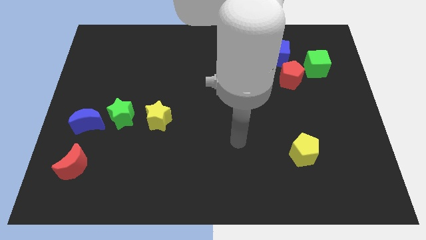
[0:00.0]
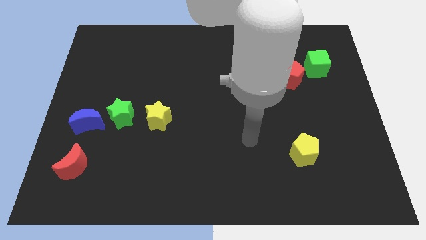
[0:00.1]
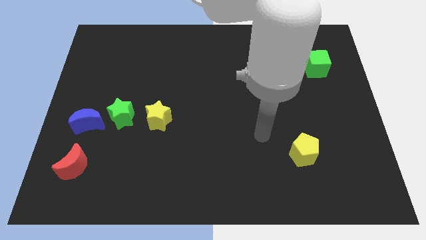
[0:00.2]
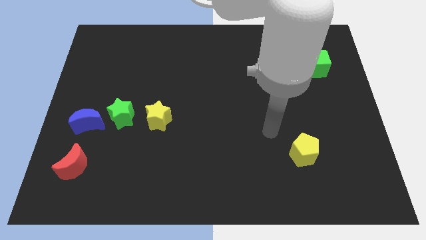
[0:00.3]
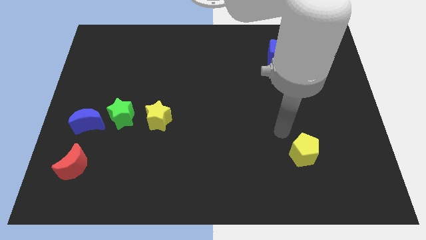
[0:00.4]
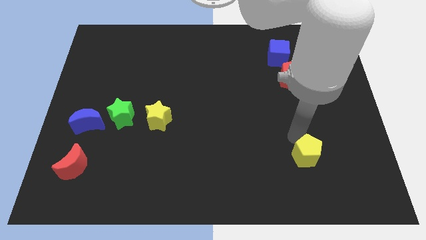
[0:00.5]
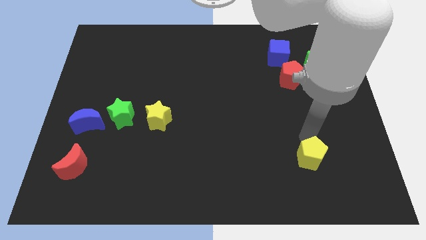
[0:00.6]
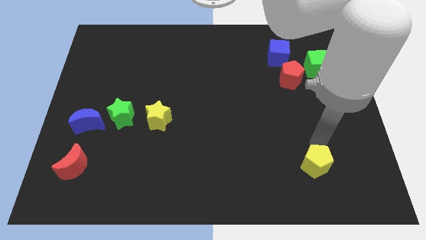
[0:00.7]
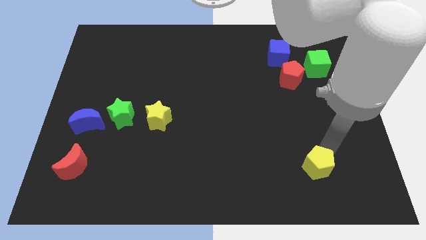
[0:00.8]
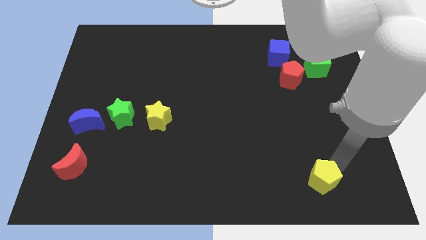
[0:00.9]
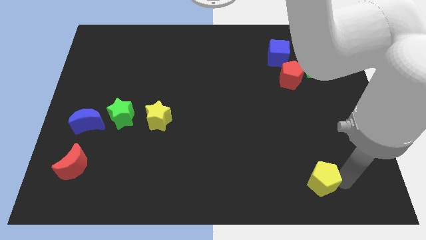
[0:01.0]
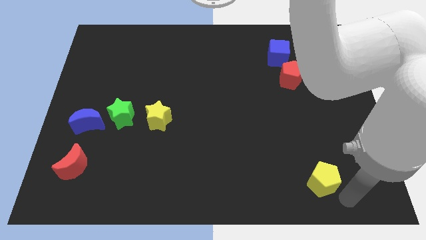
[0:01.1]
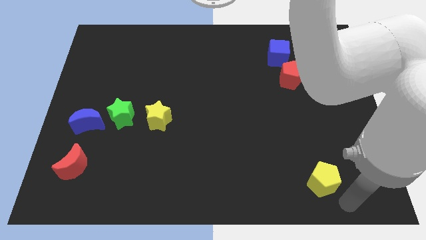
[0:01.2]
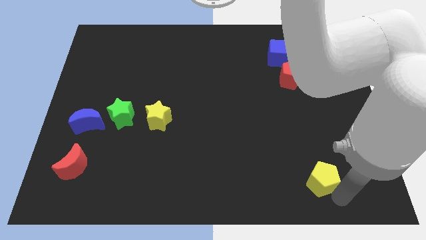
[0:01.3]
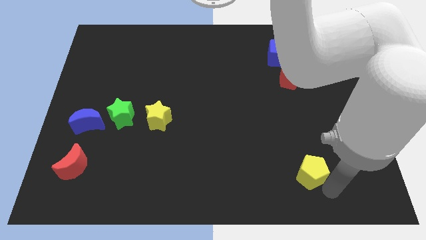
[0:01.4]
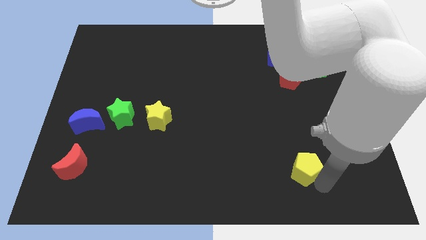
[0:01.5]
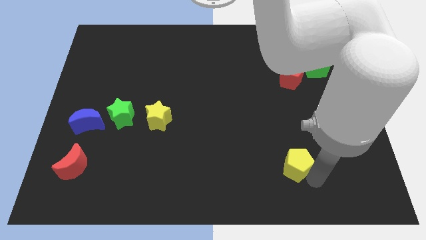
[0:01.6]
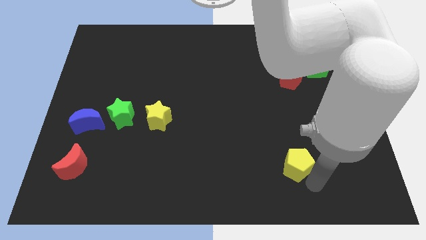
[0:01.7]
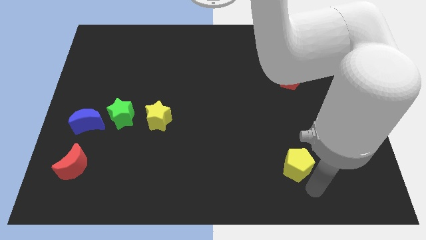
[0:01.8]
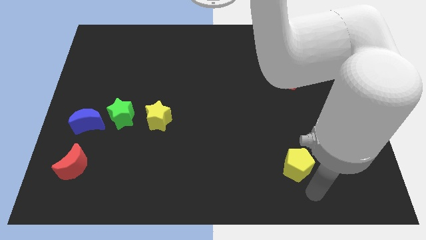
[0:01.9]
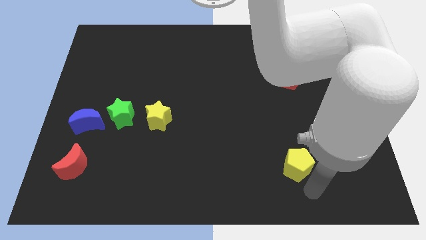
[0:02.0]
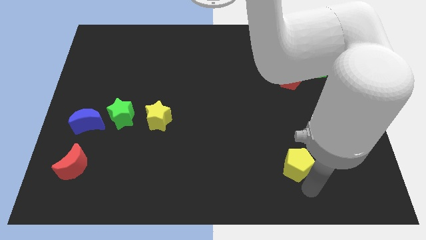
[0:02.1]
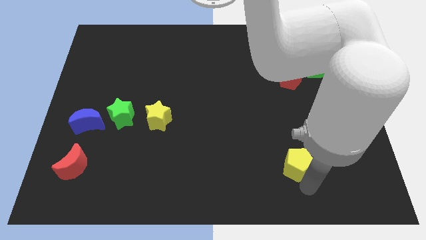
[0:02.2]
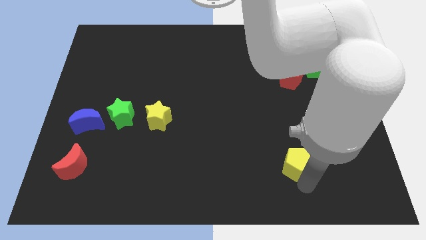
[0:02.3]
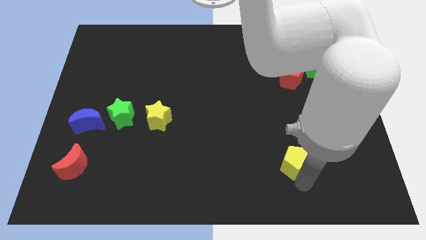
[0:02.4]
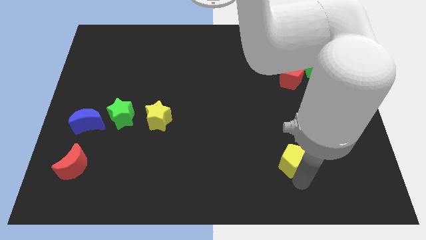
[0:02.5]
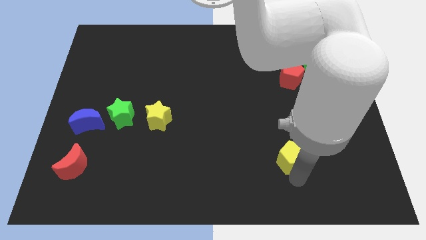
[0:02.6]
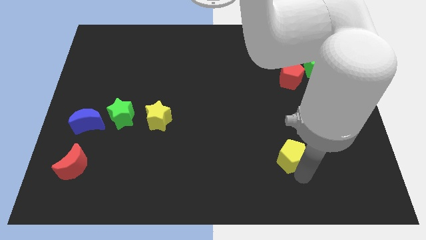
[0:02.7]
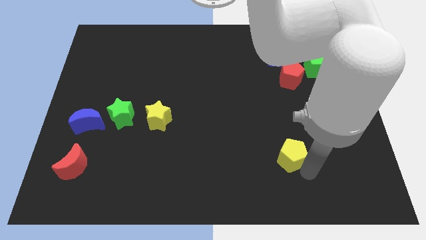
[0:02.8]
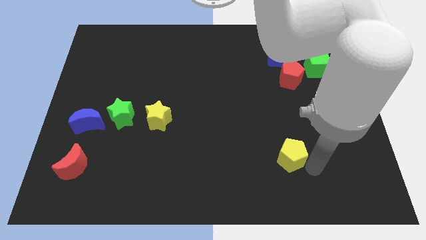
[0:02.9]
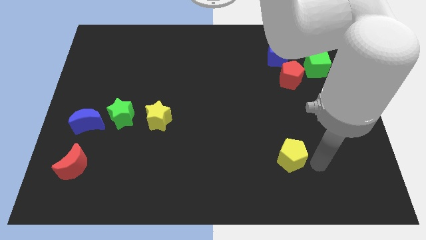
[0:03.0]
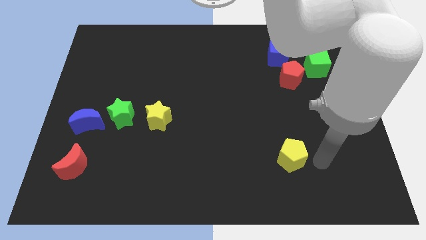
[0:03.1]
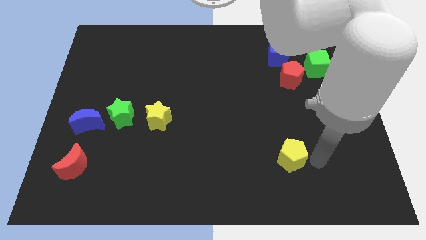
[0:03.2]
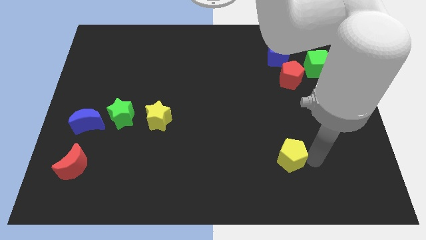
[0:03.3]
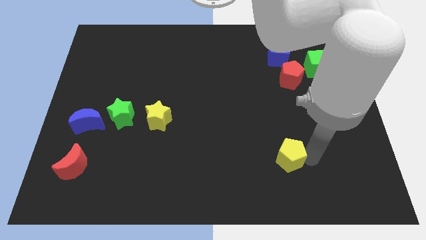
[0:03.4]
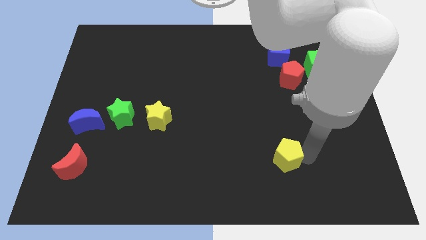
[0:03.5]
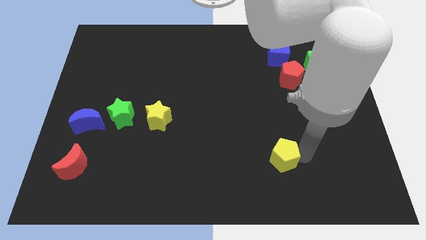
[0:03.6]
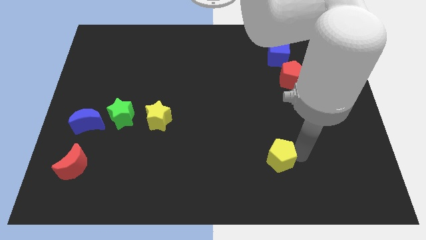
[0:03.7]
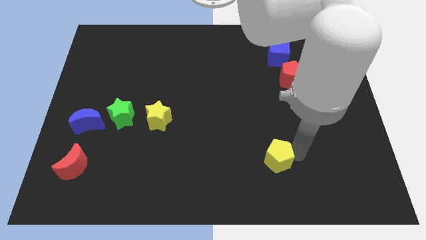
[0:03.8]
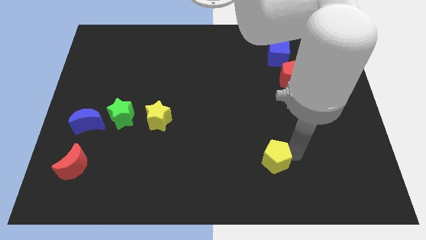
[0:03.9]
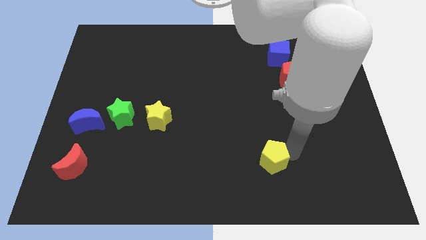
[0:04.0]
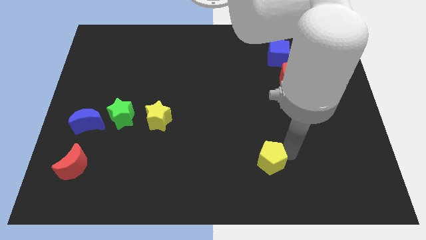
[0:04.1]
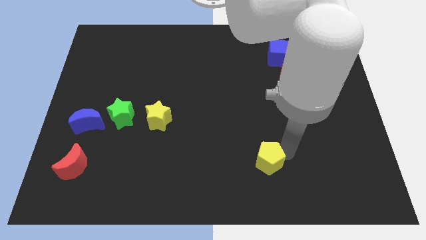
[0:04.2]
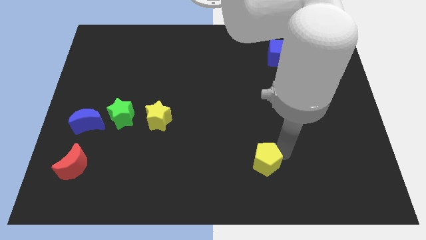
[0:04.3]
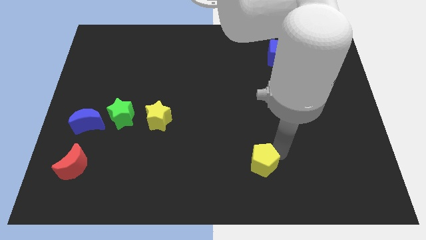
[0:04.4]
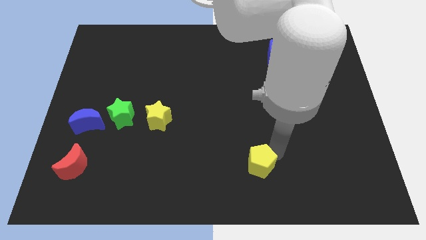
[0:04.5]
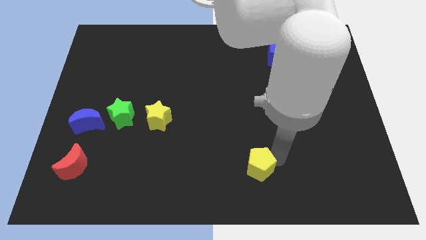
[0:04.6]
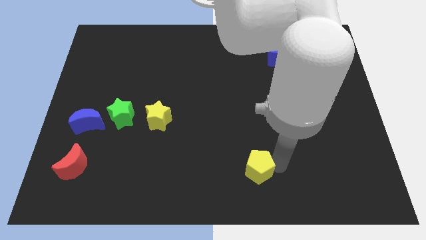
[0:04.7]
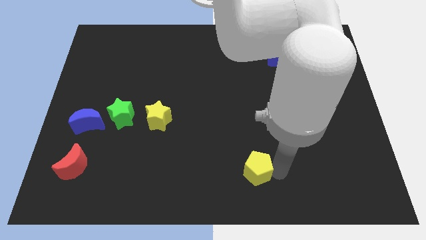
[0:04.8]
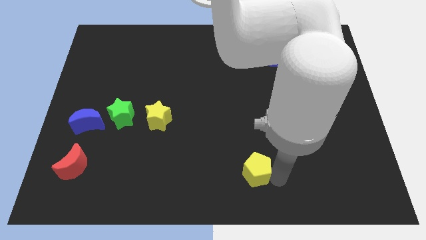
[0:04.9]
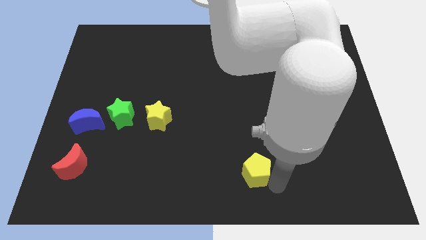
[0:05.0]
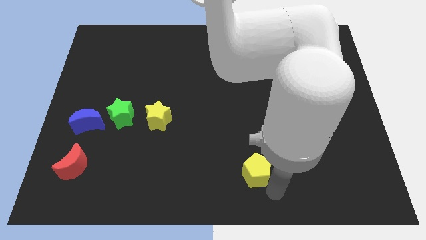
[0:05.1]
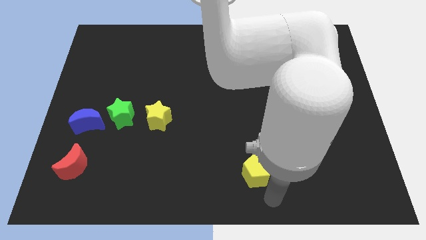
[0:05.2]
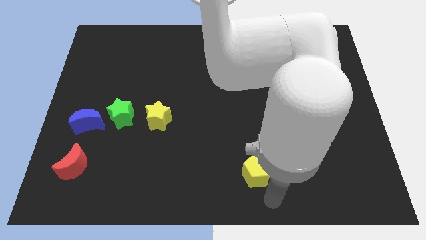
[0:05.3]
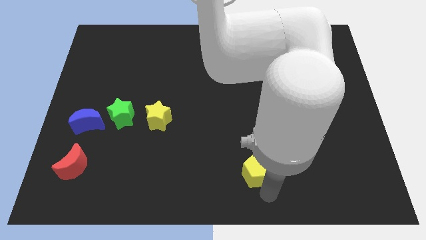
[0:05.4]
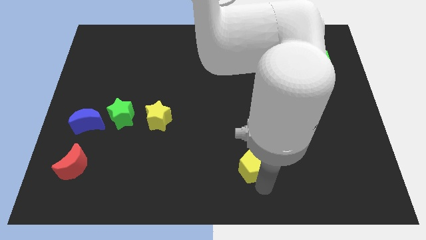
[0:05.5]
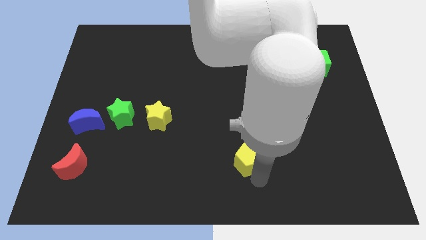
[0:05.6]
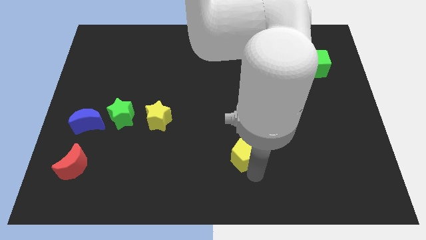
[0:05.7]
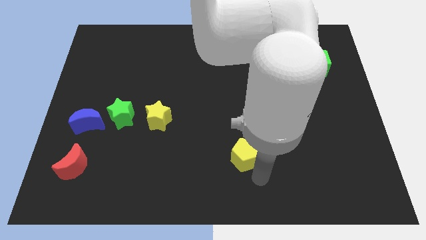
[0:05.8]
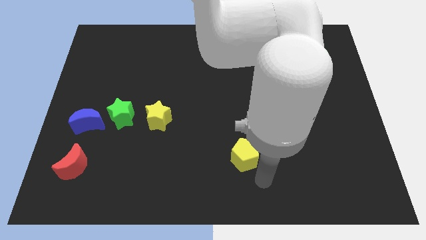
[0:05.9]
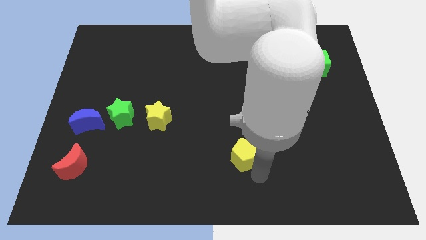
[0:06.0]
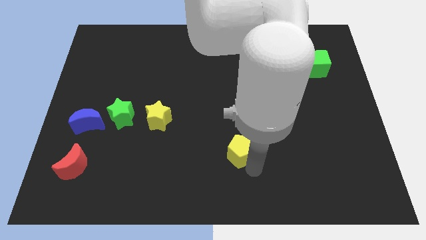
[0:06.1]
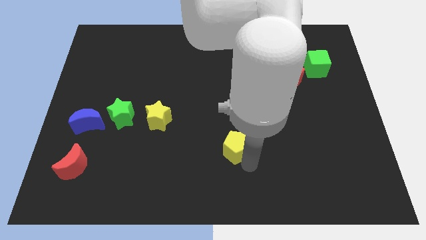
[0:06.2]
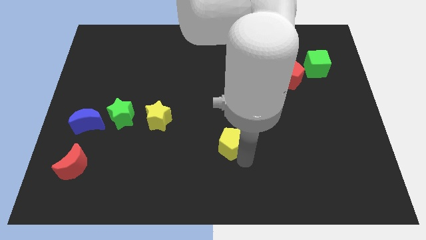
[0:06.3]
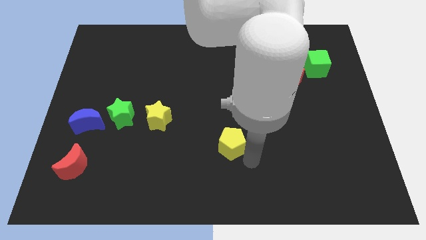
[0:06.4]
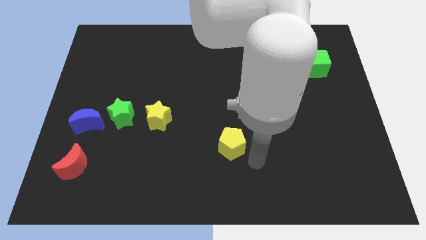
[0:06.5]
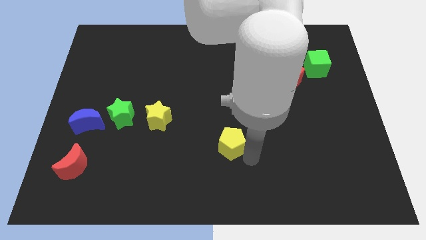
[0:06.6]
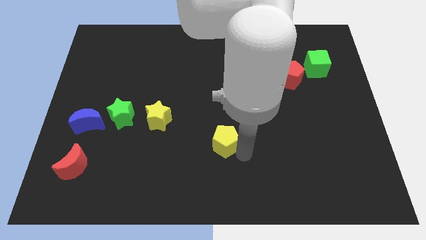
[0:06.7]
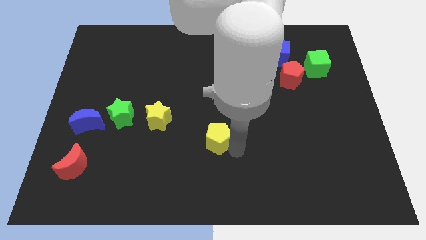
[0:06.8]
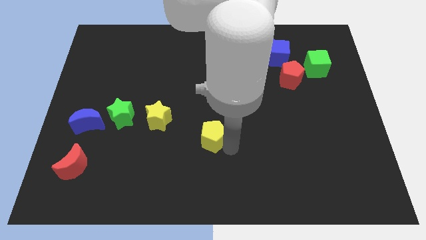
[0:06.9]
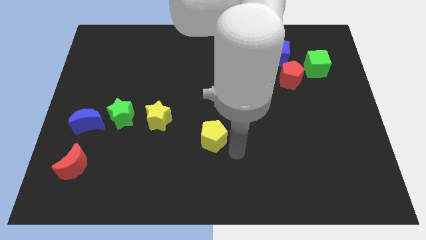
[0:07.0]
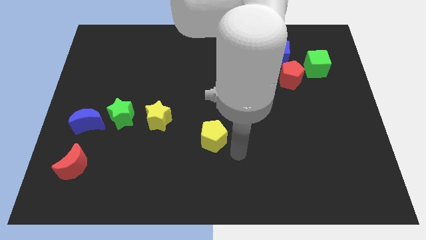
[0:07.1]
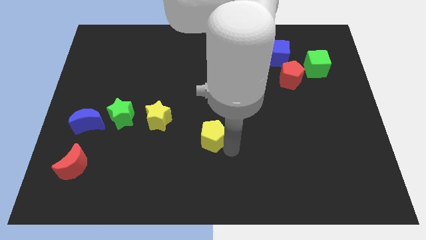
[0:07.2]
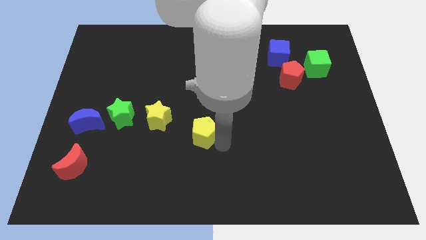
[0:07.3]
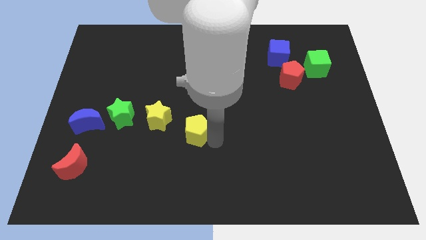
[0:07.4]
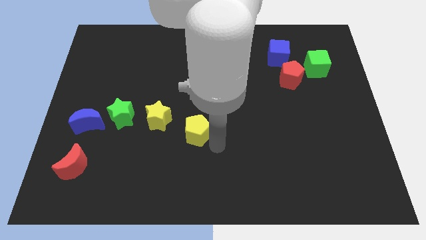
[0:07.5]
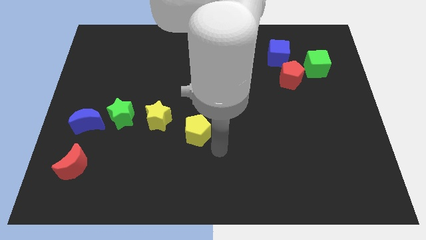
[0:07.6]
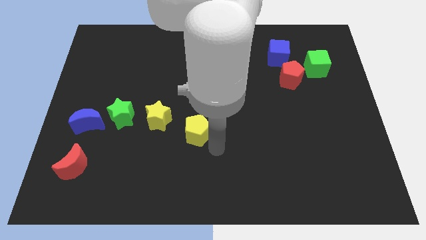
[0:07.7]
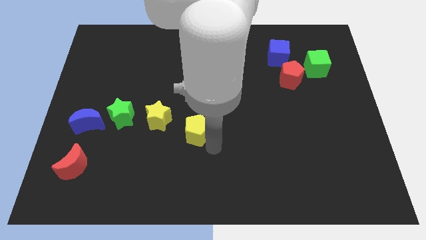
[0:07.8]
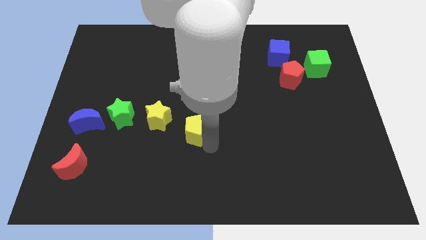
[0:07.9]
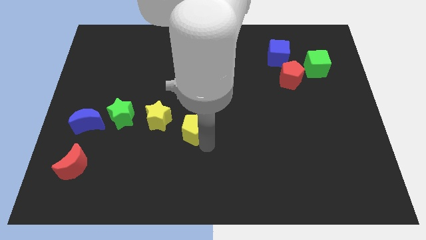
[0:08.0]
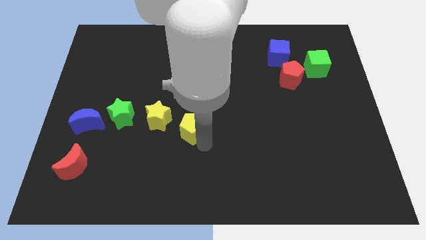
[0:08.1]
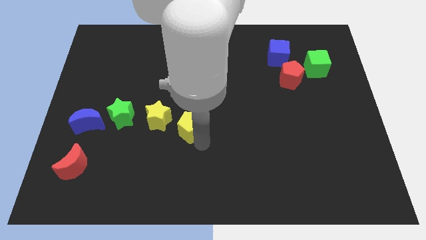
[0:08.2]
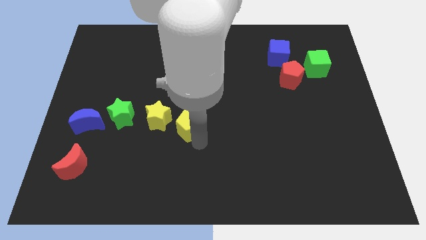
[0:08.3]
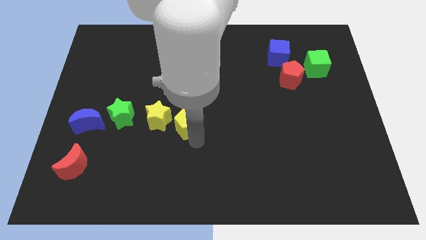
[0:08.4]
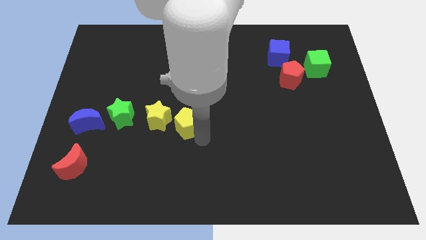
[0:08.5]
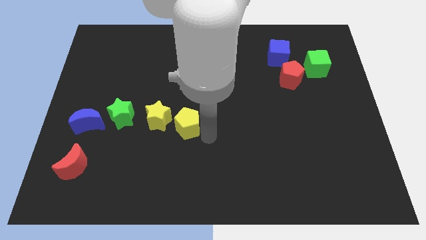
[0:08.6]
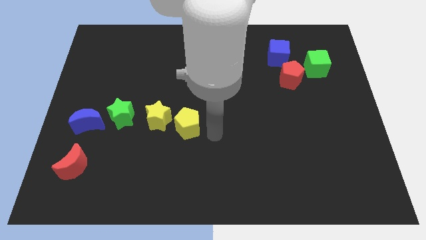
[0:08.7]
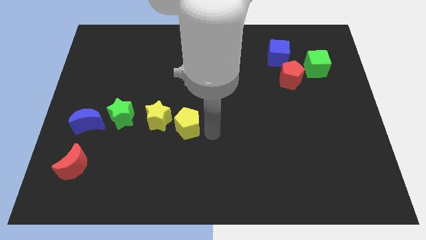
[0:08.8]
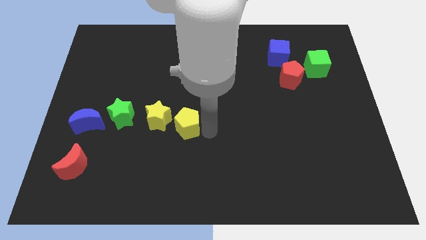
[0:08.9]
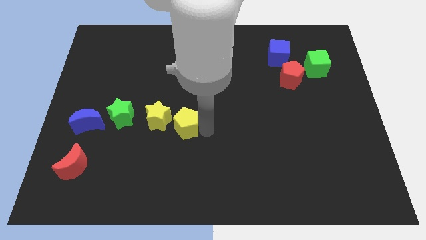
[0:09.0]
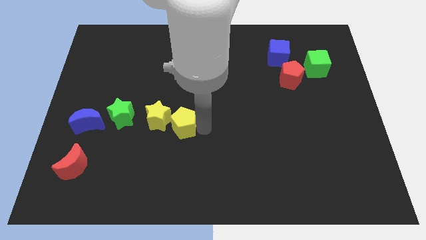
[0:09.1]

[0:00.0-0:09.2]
slide the yellow pentagon close to the yellow star
